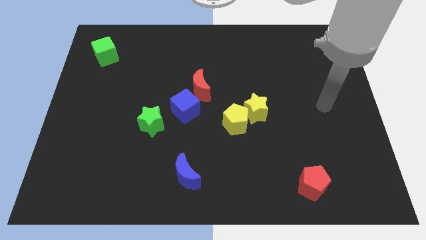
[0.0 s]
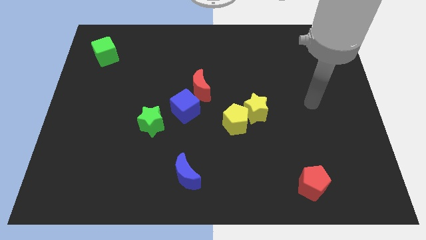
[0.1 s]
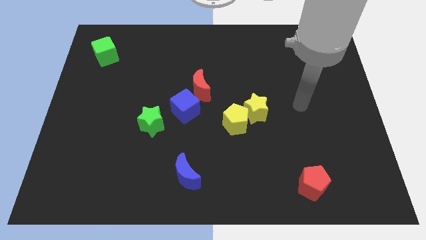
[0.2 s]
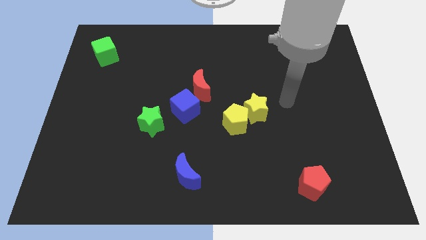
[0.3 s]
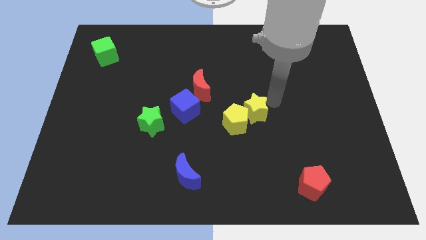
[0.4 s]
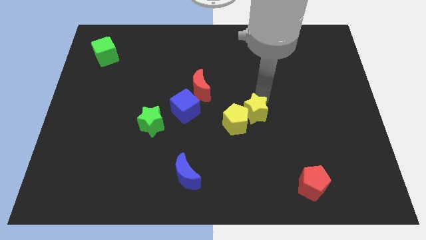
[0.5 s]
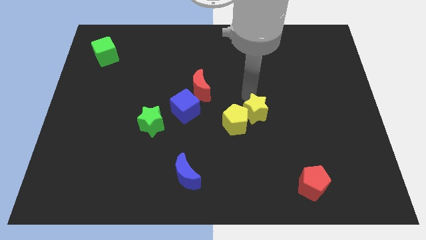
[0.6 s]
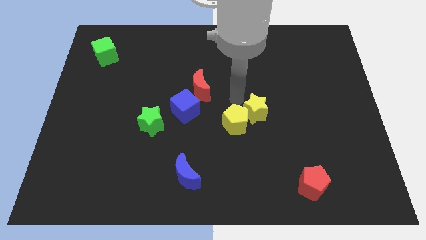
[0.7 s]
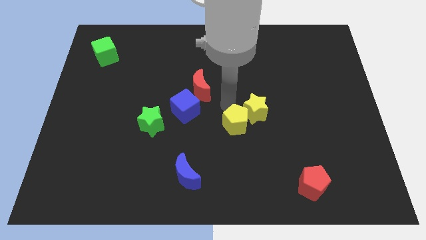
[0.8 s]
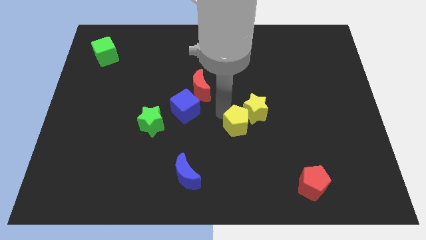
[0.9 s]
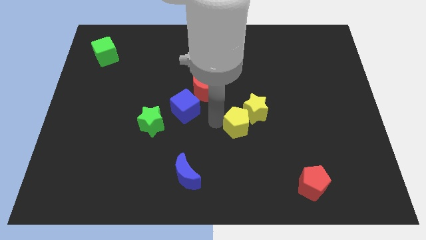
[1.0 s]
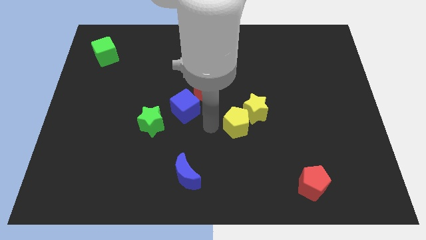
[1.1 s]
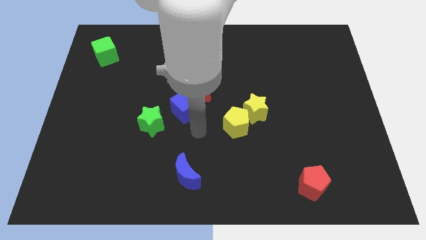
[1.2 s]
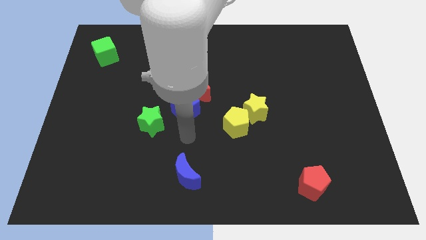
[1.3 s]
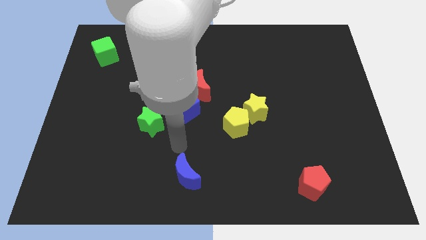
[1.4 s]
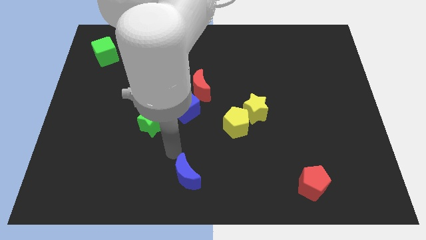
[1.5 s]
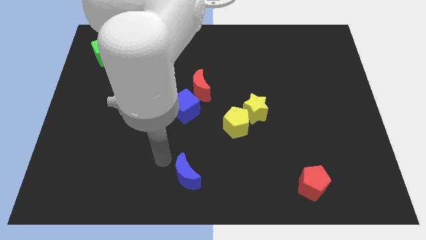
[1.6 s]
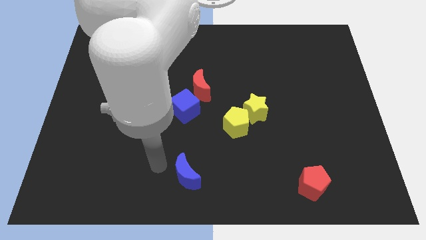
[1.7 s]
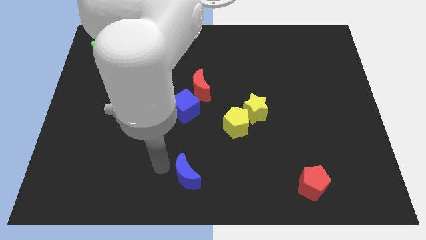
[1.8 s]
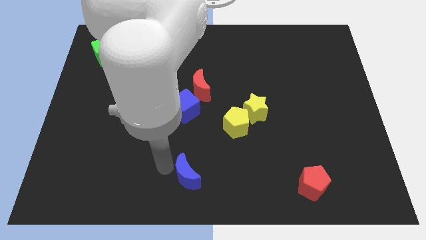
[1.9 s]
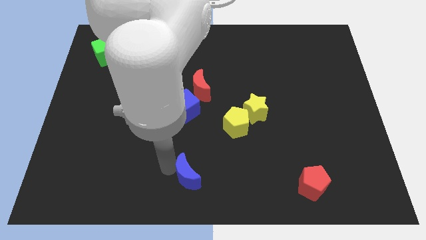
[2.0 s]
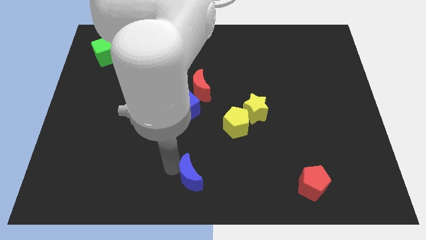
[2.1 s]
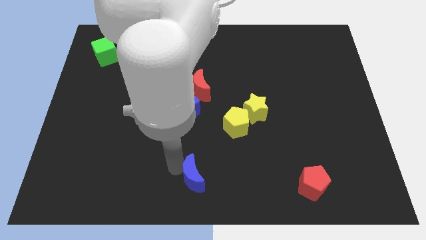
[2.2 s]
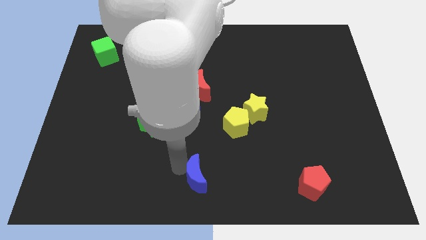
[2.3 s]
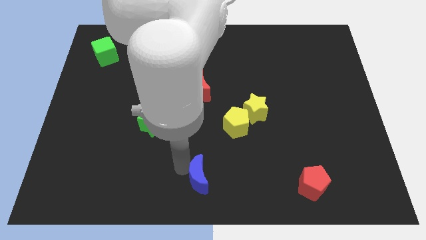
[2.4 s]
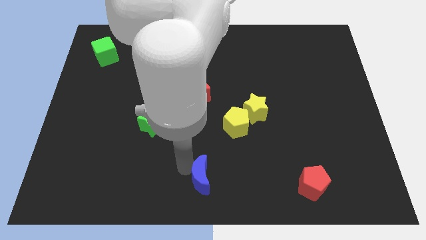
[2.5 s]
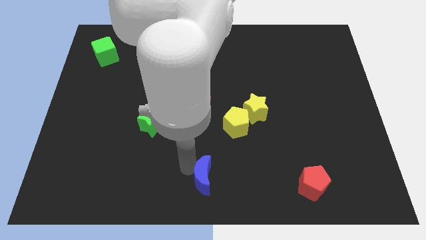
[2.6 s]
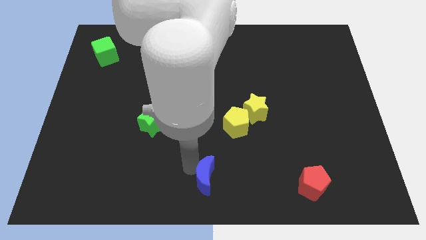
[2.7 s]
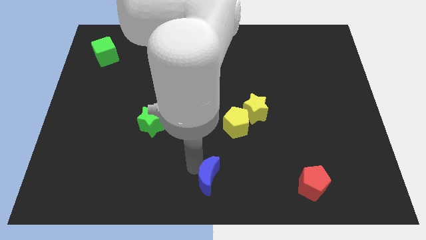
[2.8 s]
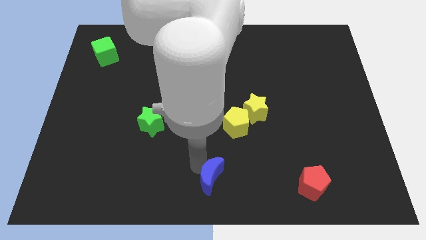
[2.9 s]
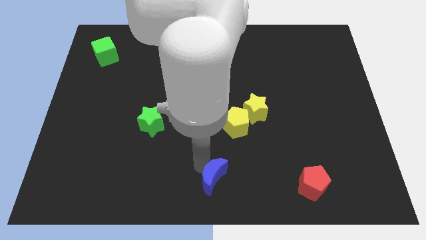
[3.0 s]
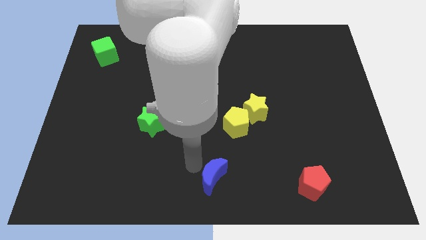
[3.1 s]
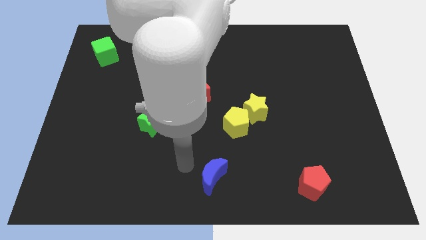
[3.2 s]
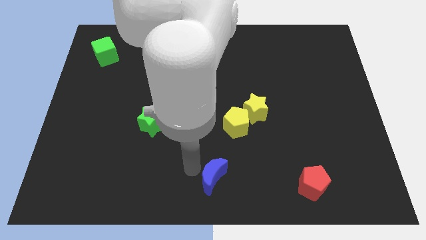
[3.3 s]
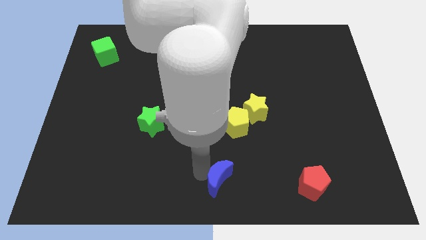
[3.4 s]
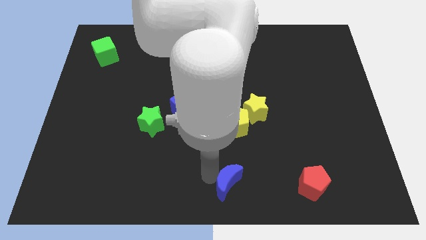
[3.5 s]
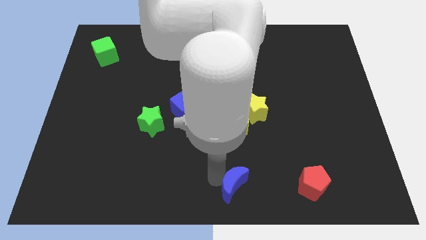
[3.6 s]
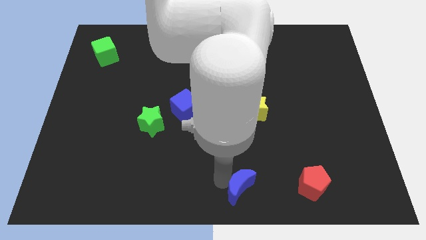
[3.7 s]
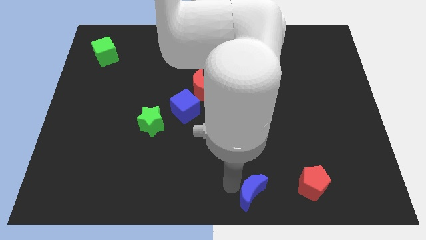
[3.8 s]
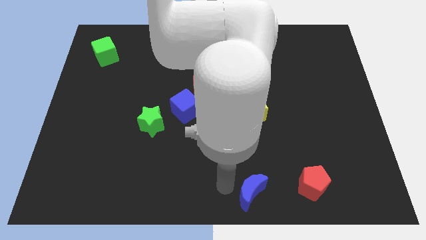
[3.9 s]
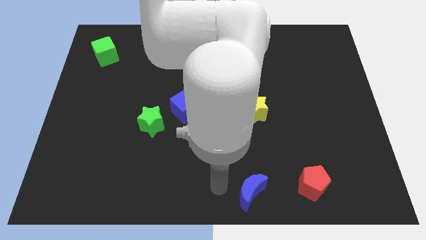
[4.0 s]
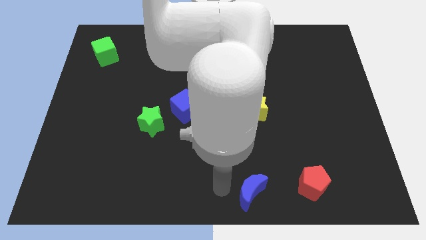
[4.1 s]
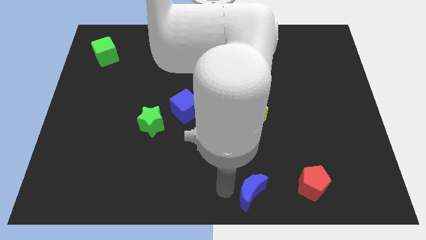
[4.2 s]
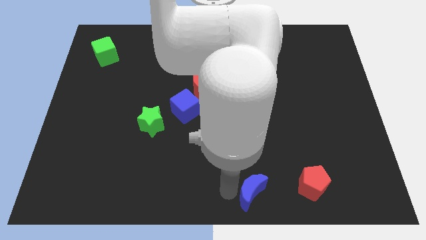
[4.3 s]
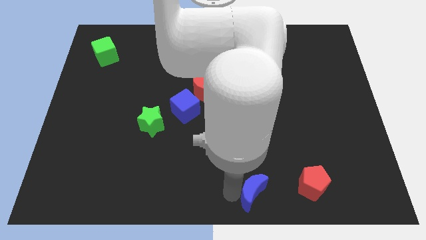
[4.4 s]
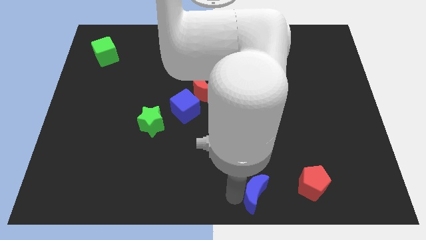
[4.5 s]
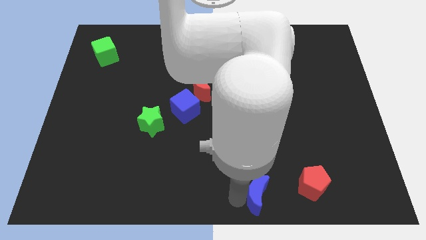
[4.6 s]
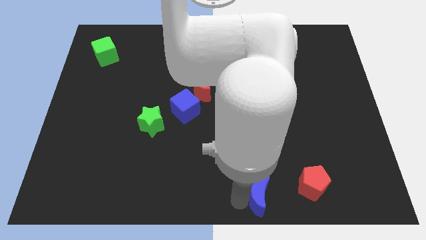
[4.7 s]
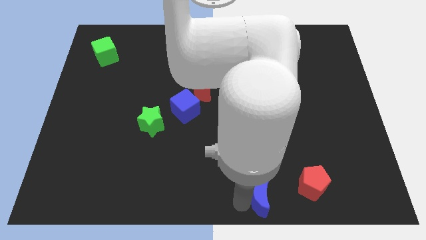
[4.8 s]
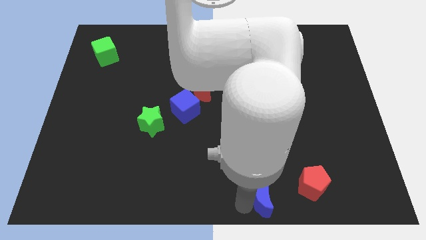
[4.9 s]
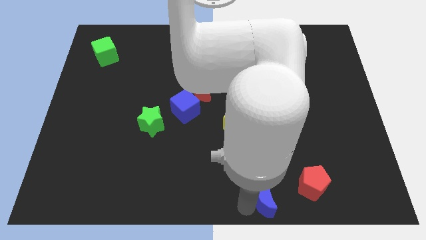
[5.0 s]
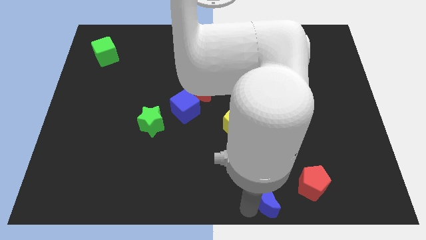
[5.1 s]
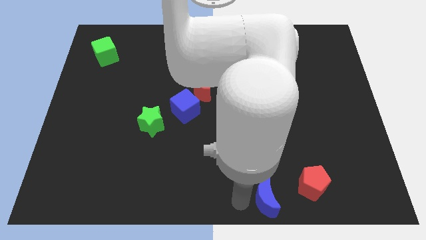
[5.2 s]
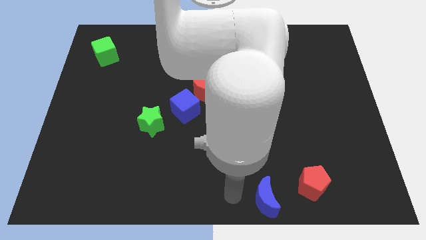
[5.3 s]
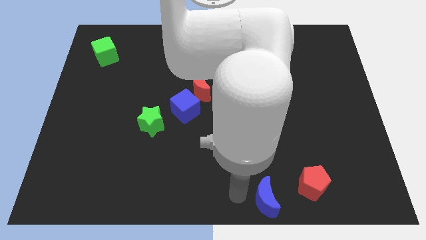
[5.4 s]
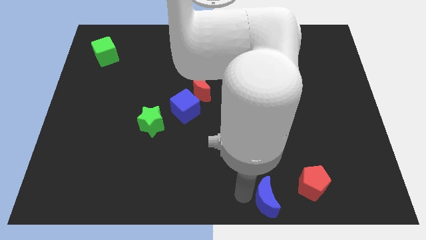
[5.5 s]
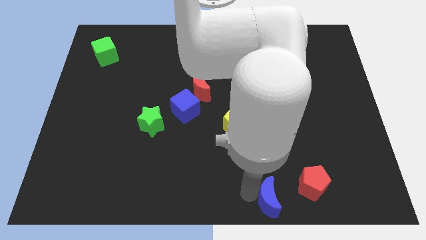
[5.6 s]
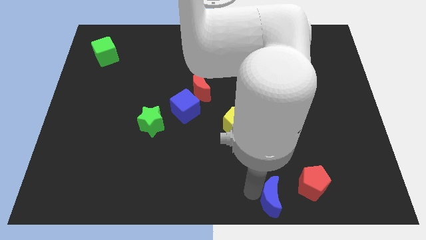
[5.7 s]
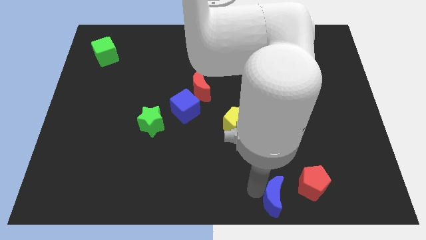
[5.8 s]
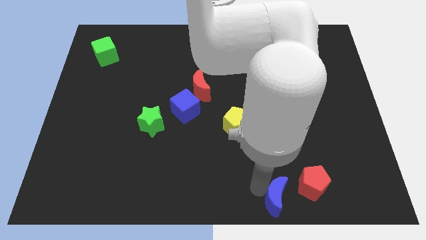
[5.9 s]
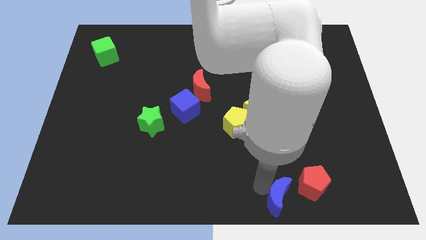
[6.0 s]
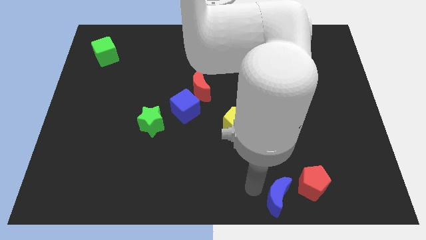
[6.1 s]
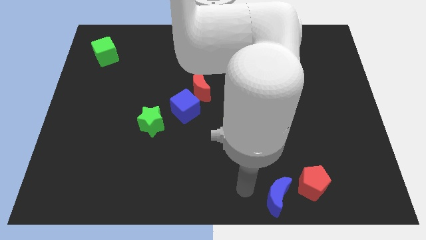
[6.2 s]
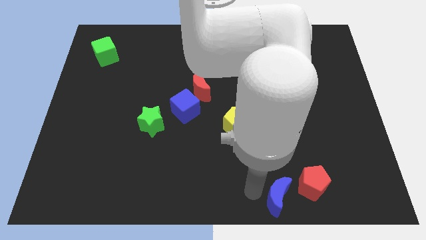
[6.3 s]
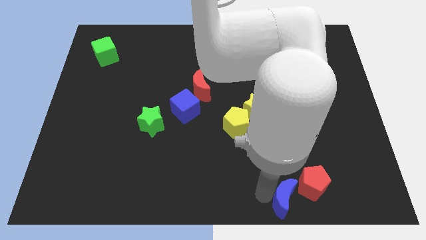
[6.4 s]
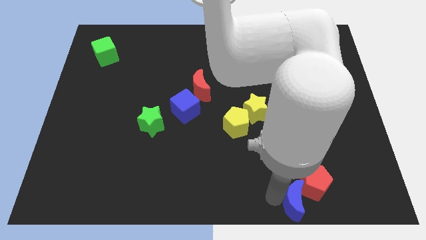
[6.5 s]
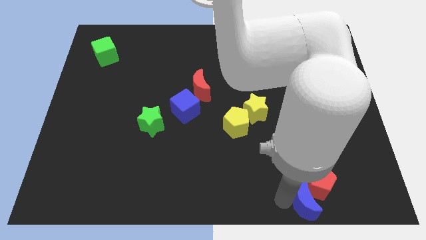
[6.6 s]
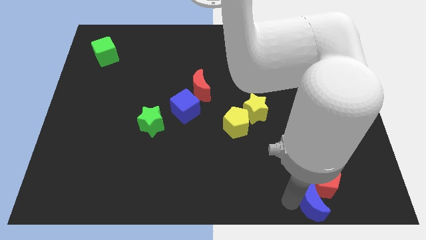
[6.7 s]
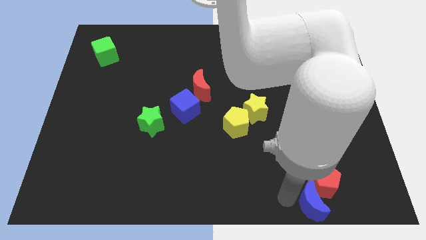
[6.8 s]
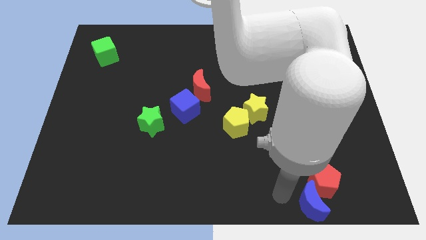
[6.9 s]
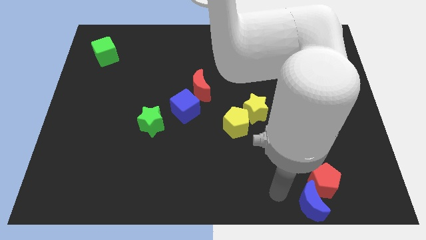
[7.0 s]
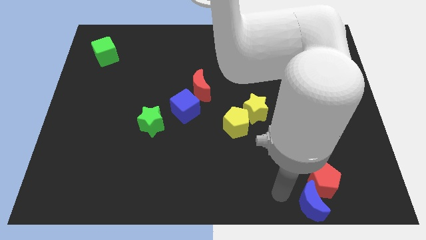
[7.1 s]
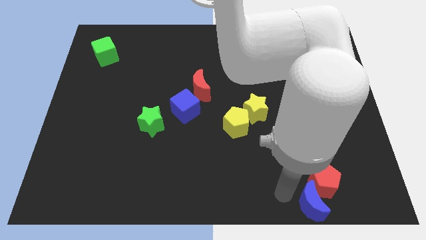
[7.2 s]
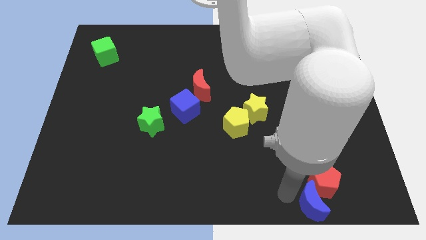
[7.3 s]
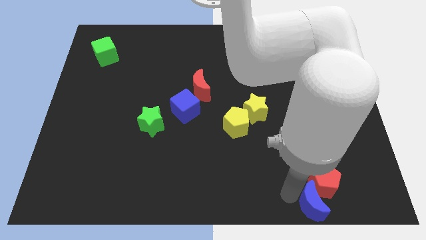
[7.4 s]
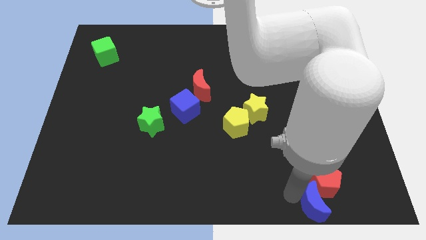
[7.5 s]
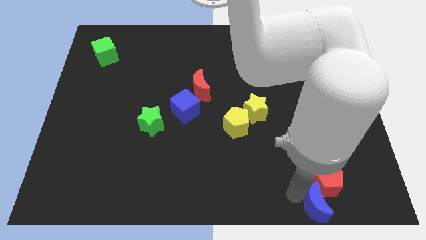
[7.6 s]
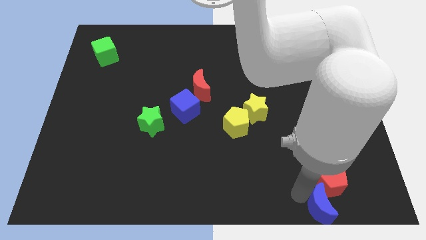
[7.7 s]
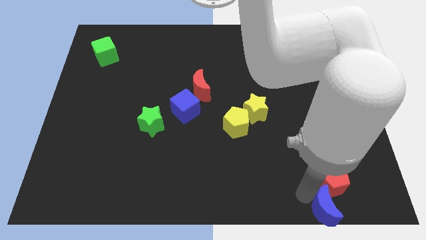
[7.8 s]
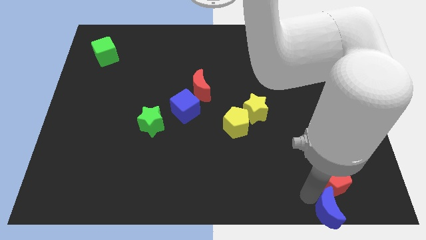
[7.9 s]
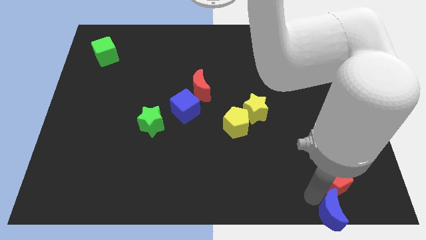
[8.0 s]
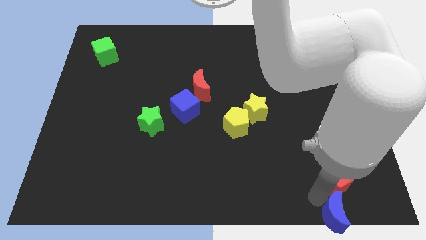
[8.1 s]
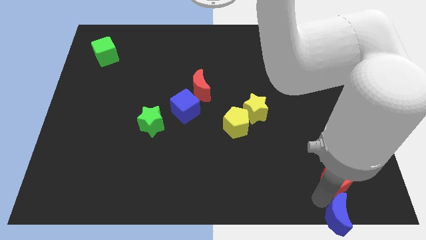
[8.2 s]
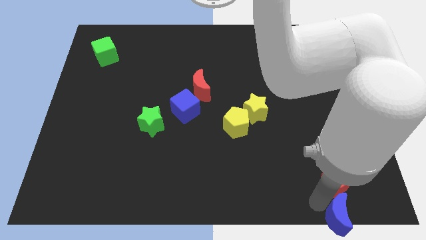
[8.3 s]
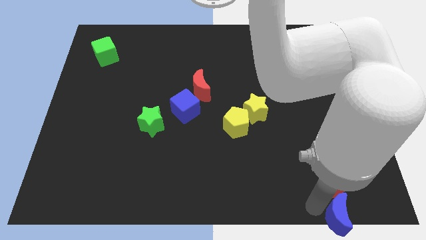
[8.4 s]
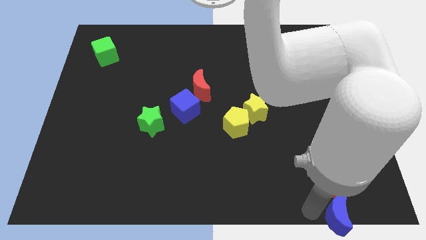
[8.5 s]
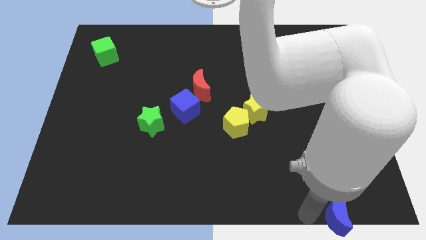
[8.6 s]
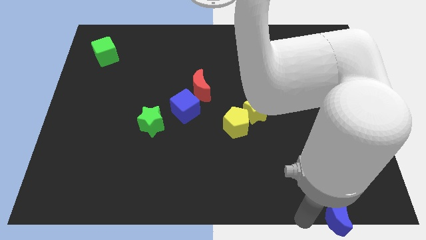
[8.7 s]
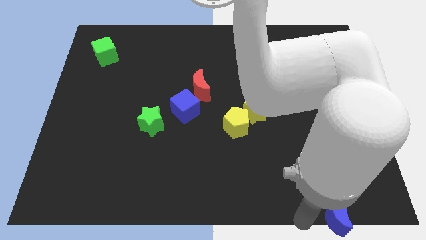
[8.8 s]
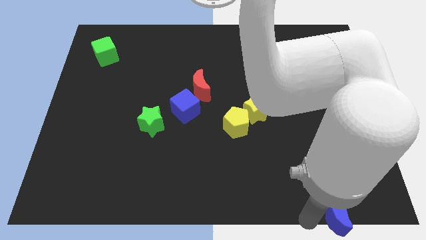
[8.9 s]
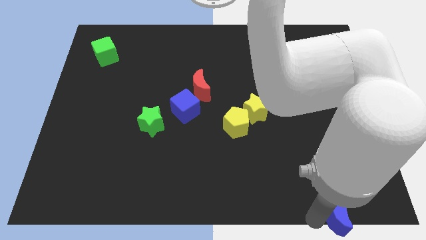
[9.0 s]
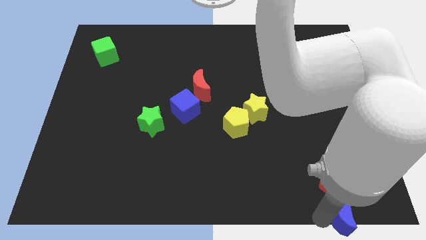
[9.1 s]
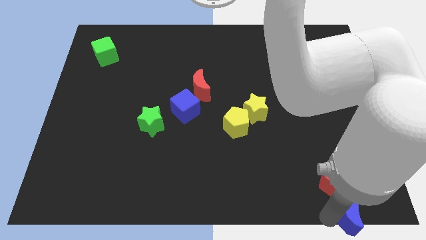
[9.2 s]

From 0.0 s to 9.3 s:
move the blue moon to the lower right corner
